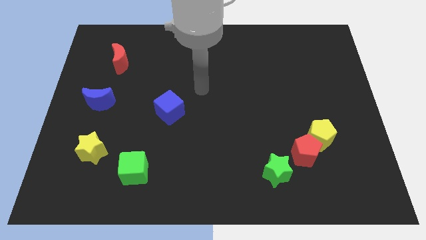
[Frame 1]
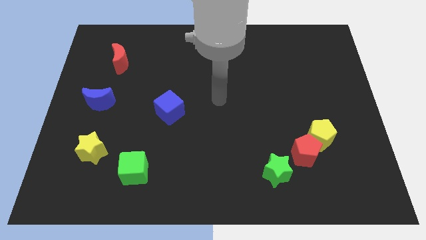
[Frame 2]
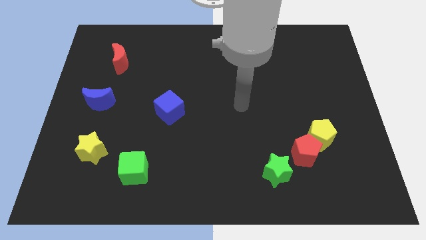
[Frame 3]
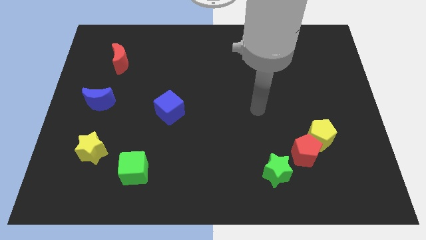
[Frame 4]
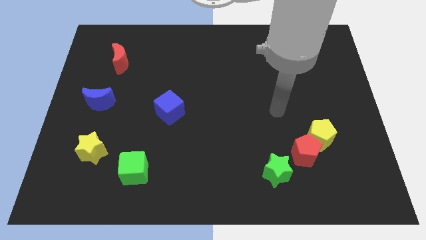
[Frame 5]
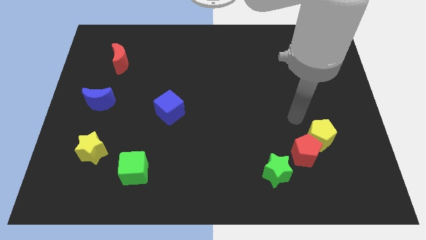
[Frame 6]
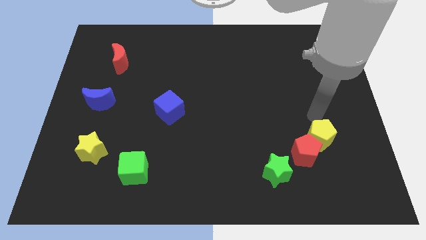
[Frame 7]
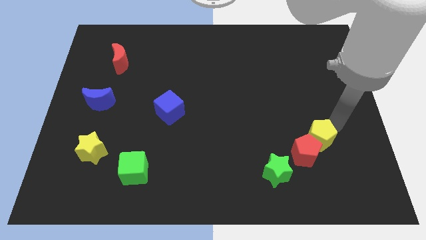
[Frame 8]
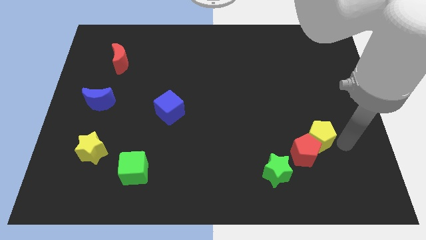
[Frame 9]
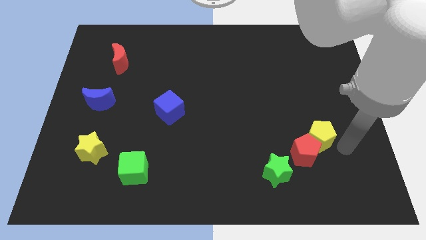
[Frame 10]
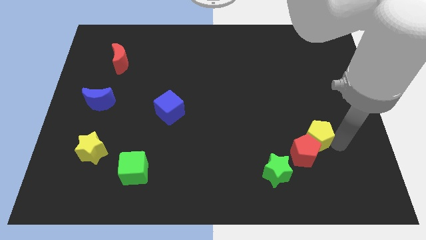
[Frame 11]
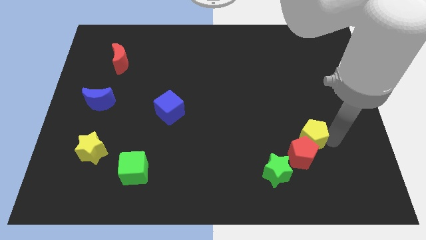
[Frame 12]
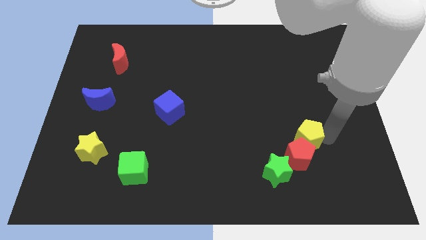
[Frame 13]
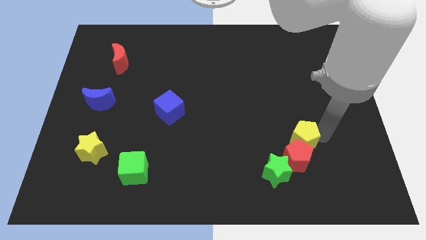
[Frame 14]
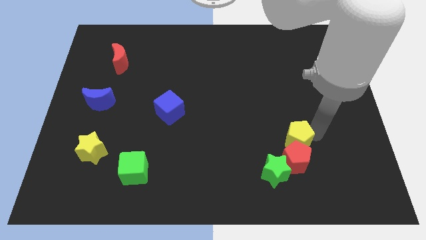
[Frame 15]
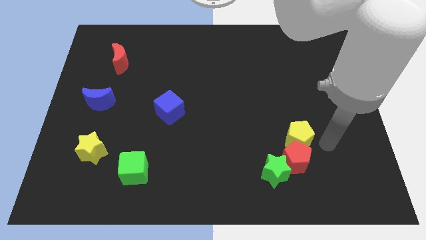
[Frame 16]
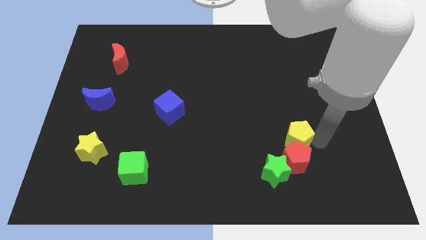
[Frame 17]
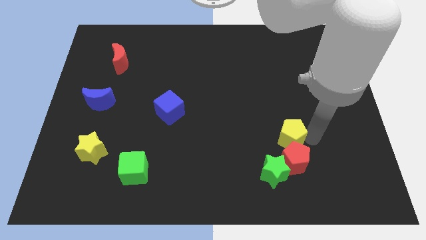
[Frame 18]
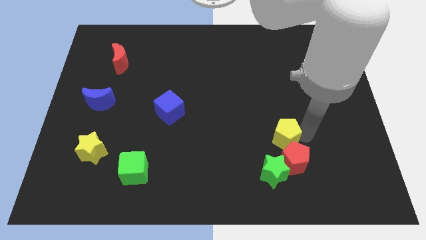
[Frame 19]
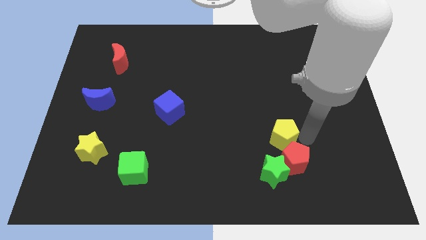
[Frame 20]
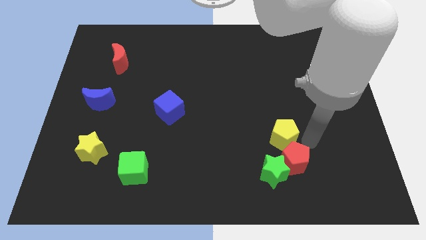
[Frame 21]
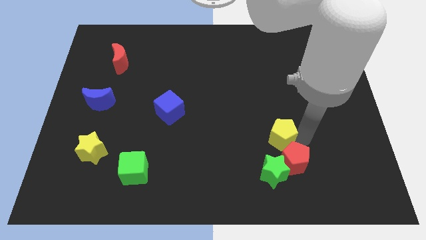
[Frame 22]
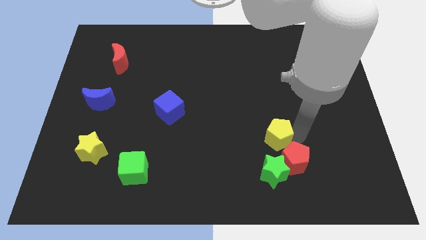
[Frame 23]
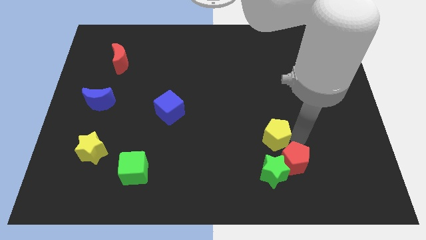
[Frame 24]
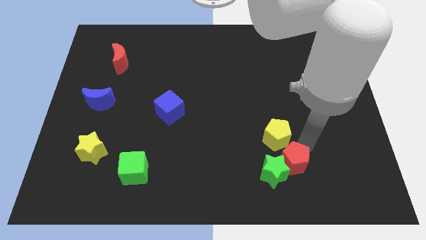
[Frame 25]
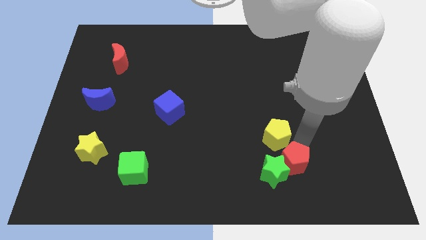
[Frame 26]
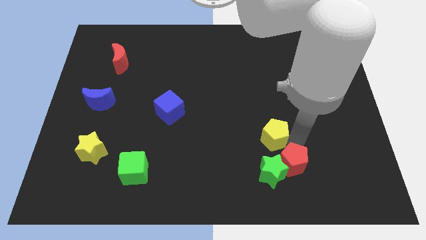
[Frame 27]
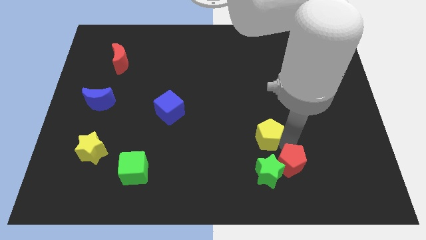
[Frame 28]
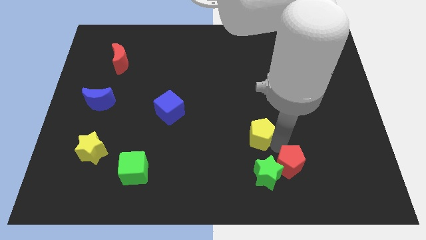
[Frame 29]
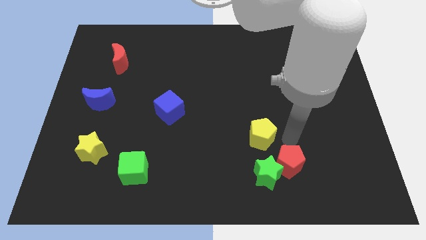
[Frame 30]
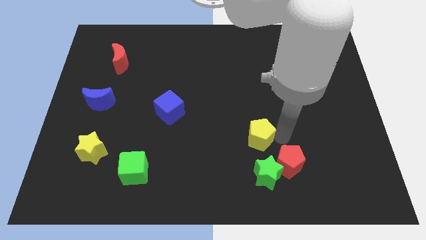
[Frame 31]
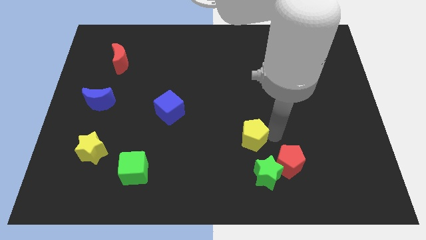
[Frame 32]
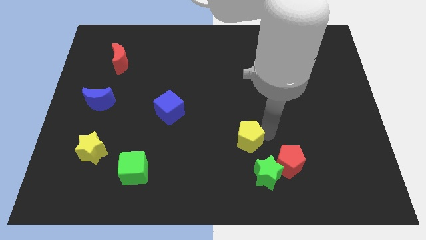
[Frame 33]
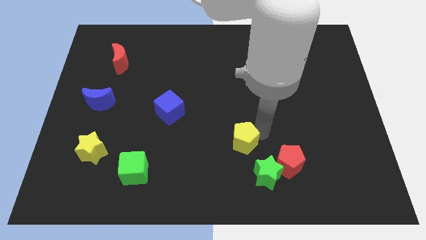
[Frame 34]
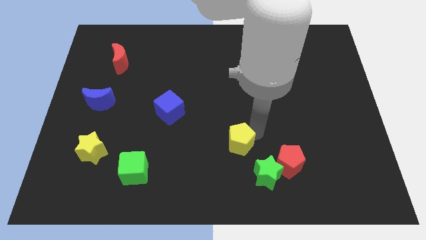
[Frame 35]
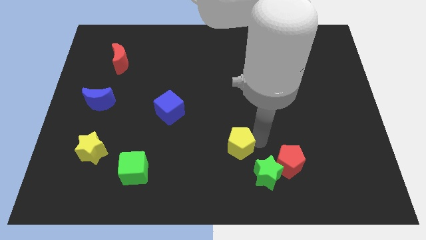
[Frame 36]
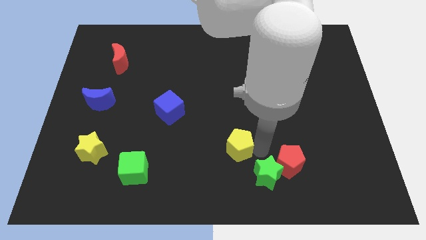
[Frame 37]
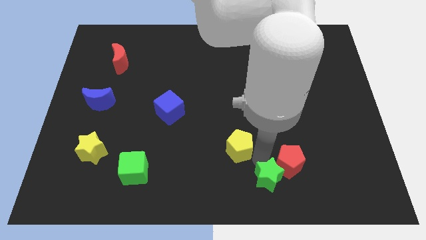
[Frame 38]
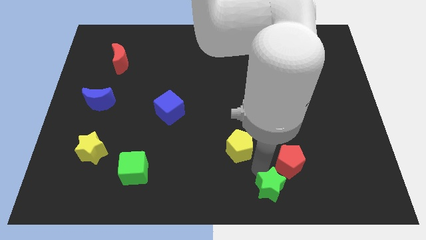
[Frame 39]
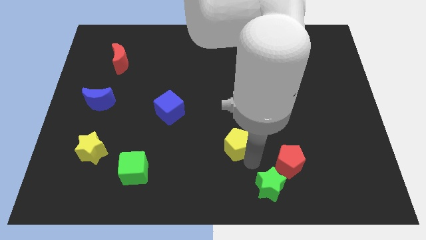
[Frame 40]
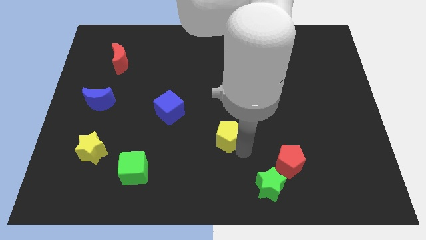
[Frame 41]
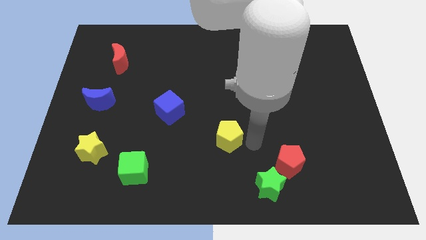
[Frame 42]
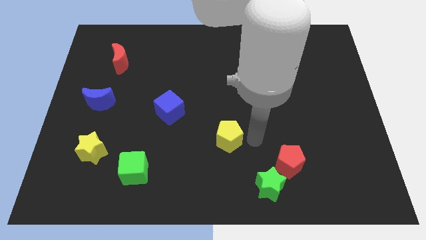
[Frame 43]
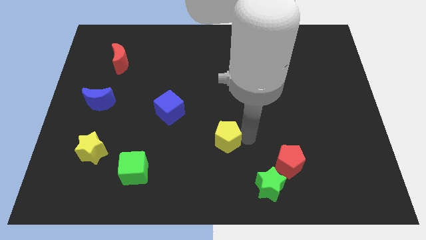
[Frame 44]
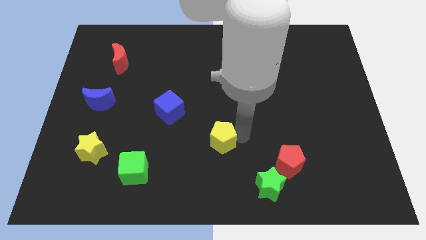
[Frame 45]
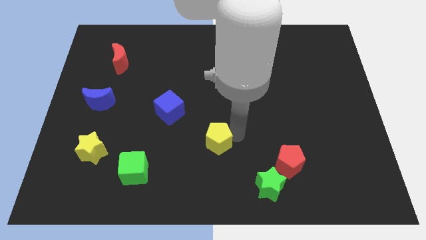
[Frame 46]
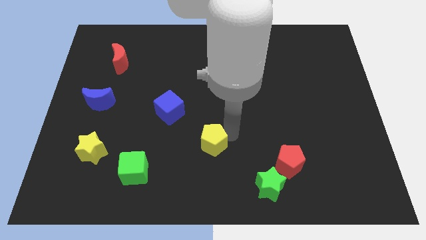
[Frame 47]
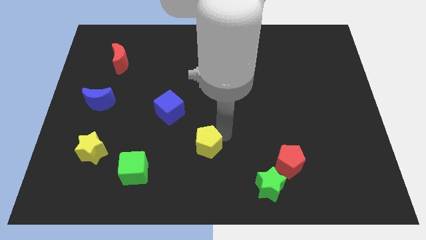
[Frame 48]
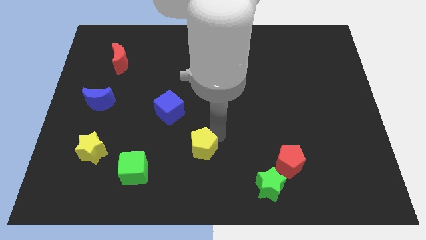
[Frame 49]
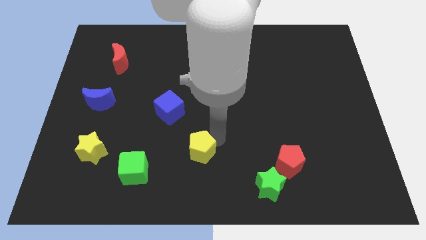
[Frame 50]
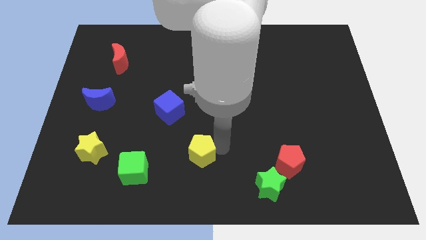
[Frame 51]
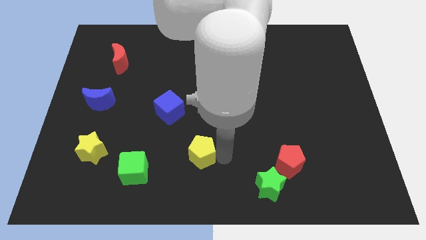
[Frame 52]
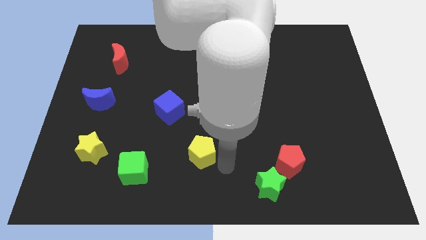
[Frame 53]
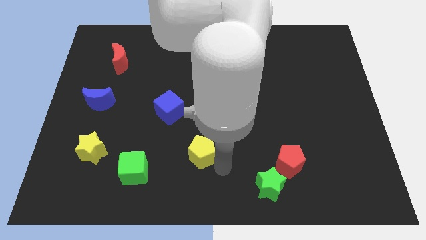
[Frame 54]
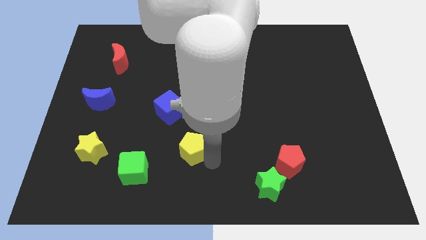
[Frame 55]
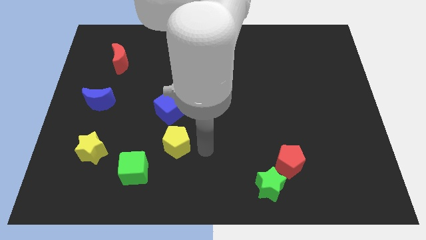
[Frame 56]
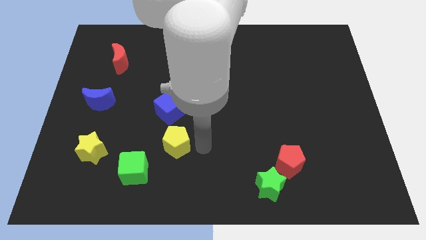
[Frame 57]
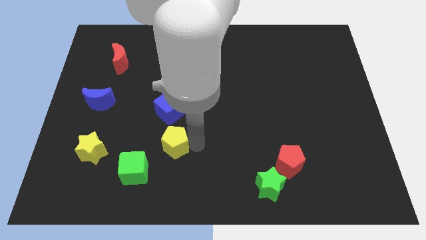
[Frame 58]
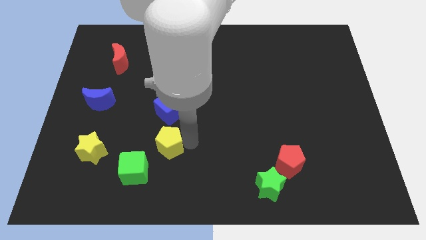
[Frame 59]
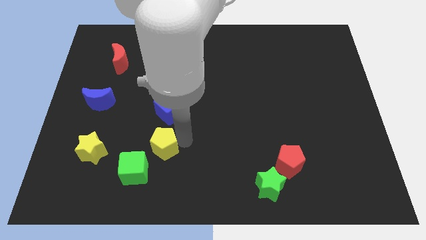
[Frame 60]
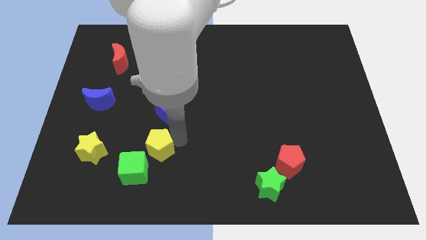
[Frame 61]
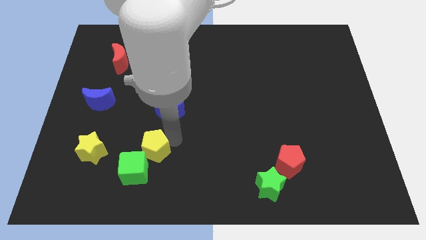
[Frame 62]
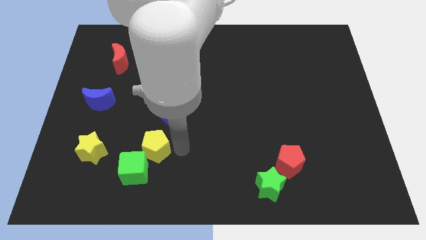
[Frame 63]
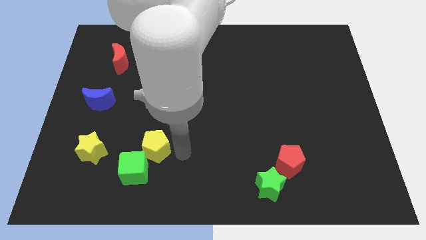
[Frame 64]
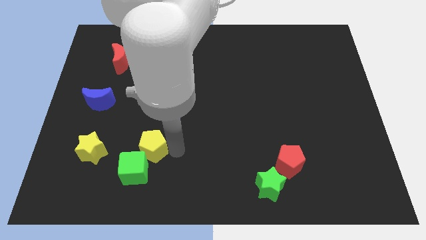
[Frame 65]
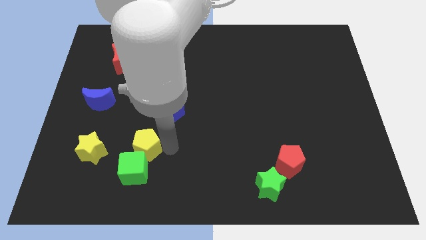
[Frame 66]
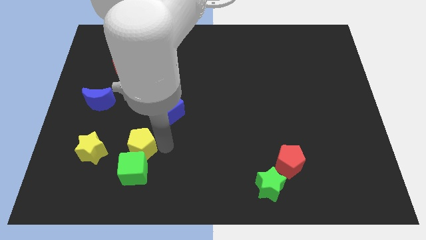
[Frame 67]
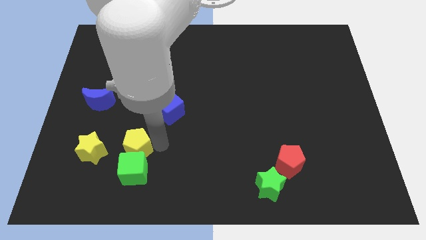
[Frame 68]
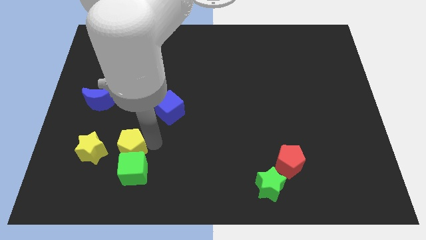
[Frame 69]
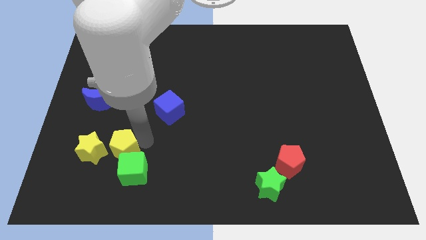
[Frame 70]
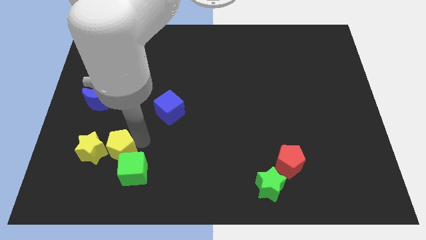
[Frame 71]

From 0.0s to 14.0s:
move the yellow pentagon close to the yellow star
